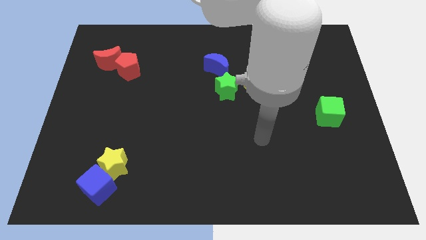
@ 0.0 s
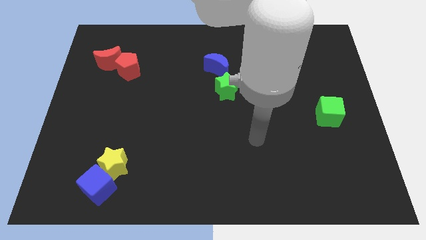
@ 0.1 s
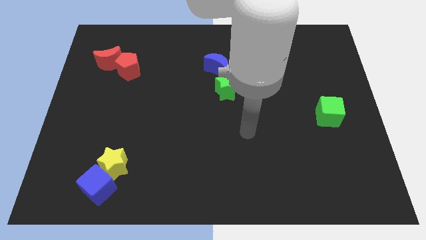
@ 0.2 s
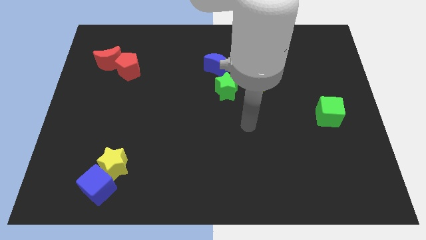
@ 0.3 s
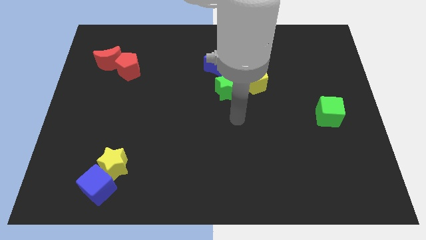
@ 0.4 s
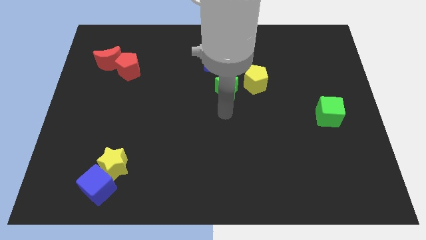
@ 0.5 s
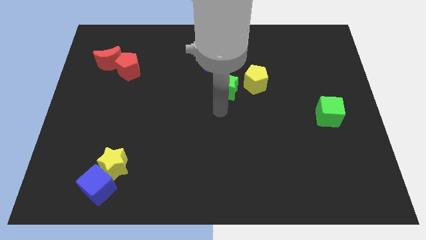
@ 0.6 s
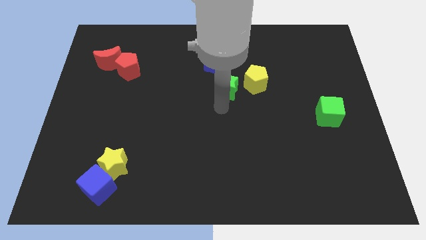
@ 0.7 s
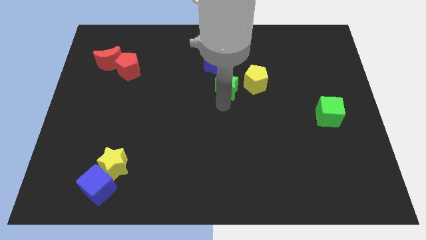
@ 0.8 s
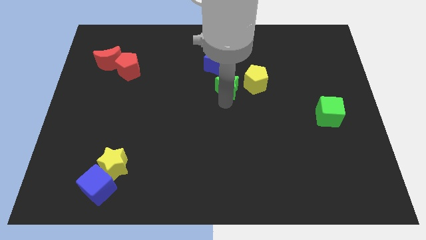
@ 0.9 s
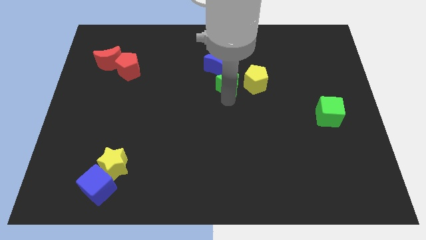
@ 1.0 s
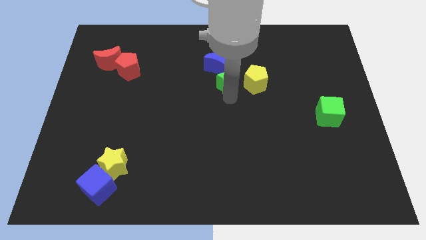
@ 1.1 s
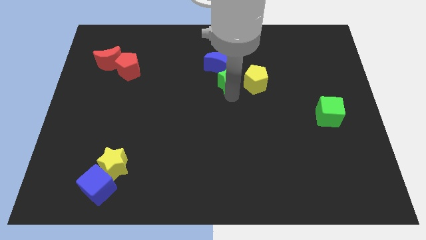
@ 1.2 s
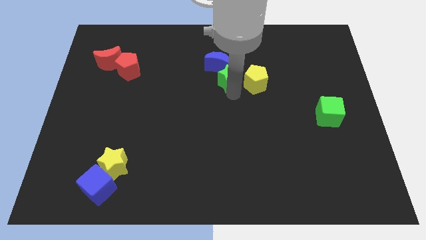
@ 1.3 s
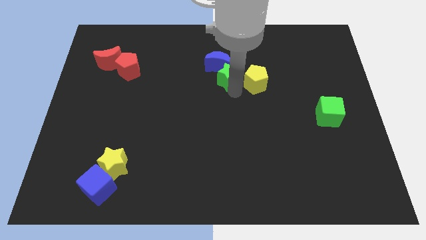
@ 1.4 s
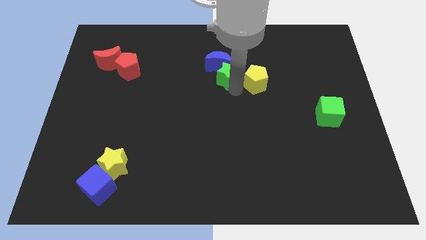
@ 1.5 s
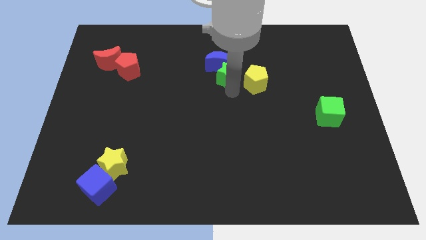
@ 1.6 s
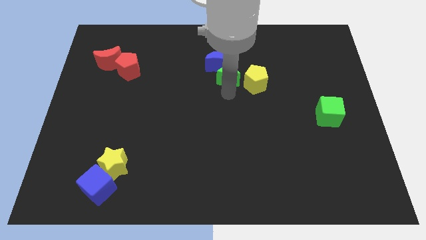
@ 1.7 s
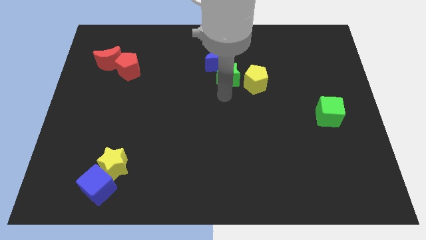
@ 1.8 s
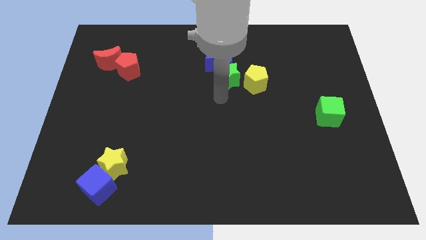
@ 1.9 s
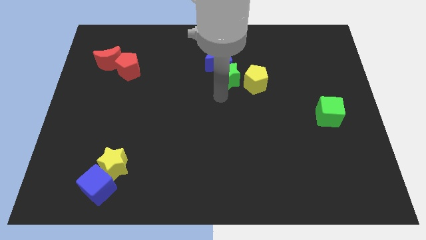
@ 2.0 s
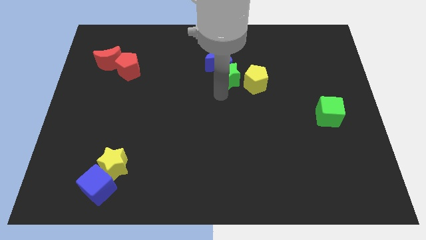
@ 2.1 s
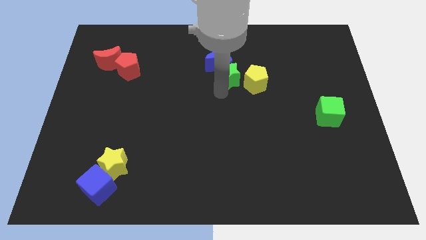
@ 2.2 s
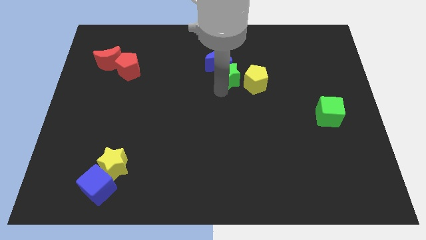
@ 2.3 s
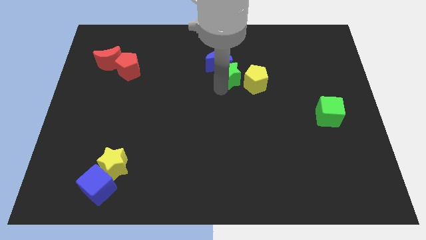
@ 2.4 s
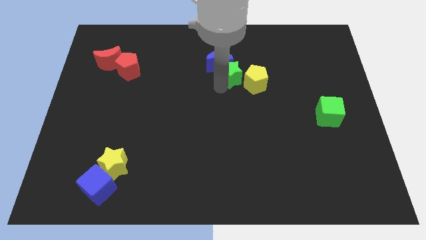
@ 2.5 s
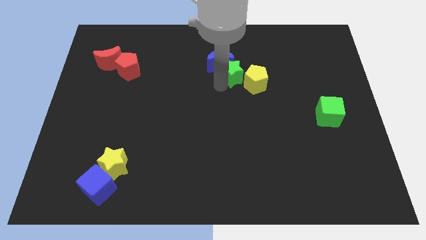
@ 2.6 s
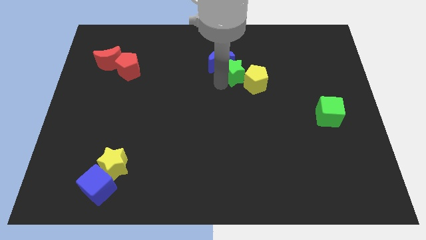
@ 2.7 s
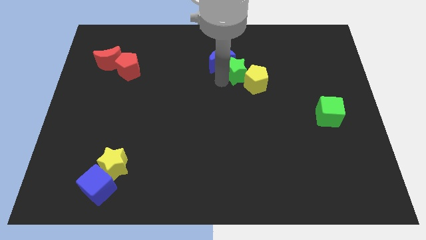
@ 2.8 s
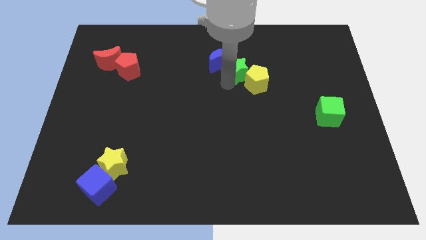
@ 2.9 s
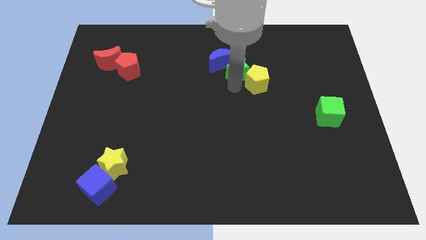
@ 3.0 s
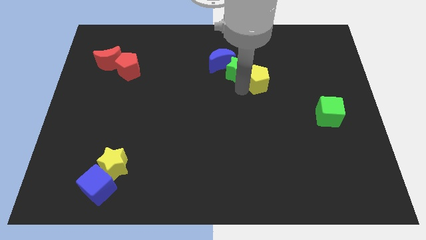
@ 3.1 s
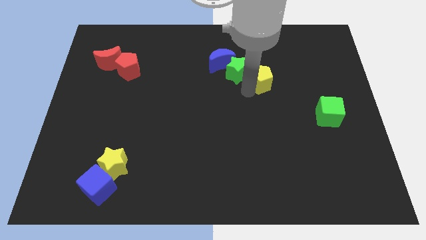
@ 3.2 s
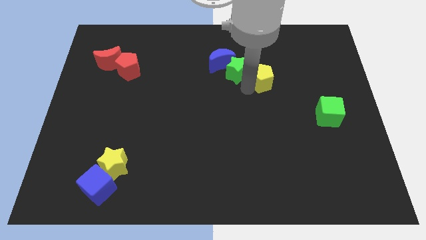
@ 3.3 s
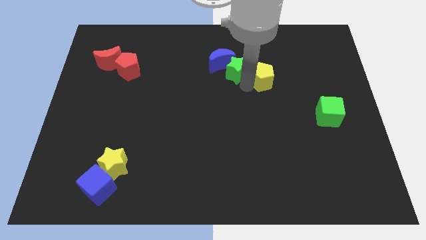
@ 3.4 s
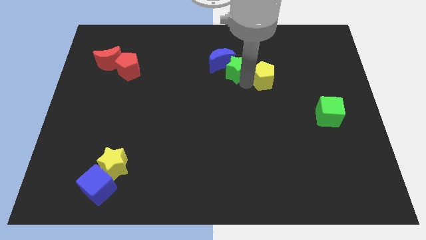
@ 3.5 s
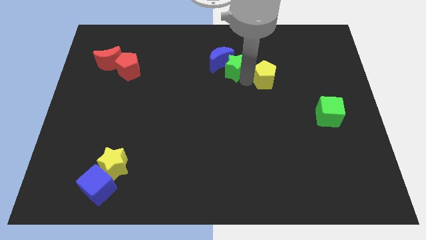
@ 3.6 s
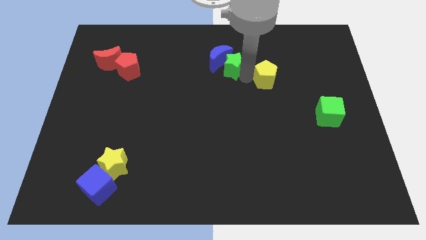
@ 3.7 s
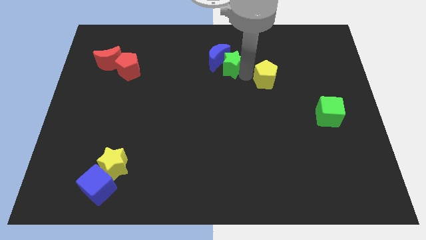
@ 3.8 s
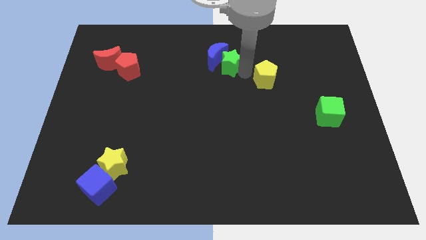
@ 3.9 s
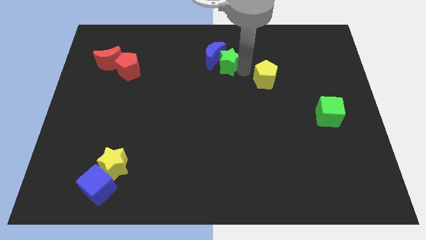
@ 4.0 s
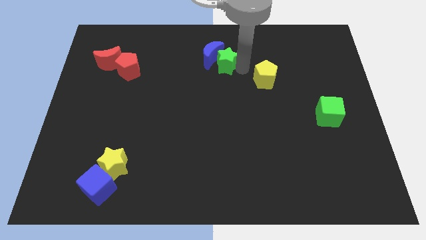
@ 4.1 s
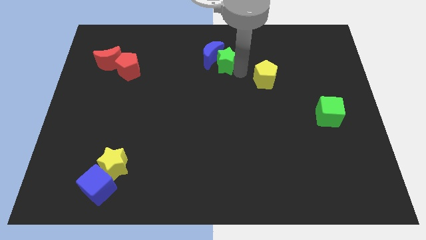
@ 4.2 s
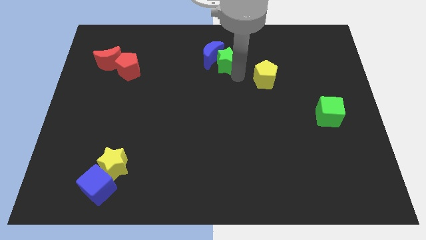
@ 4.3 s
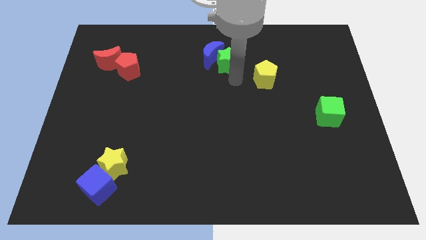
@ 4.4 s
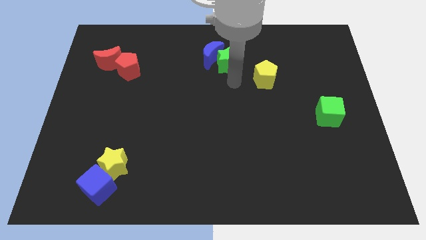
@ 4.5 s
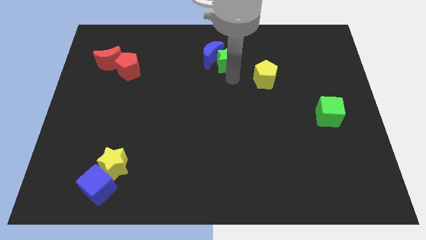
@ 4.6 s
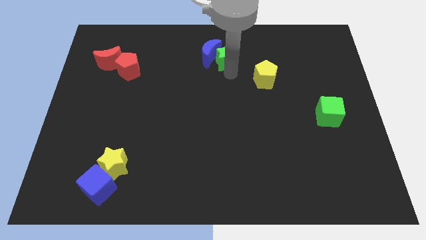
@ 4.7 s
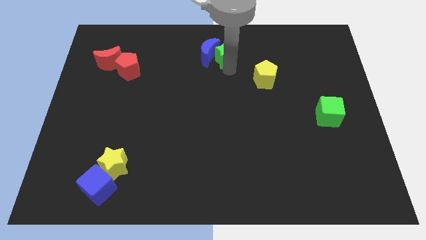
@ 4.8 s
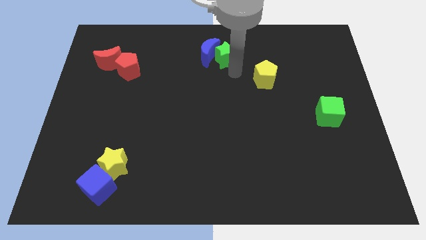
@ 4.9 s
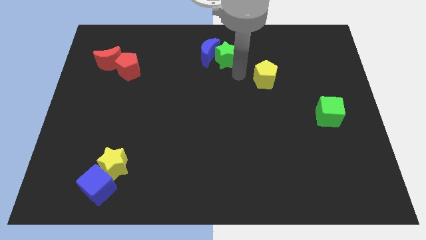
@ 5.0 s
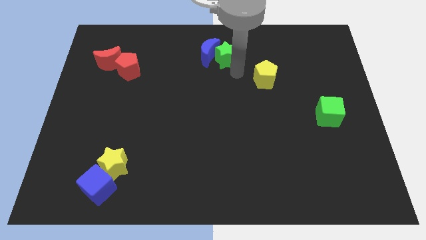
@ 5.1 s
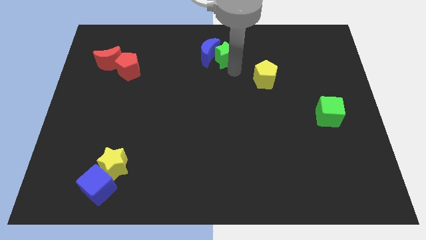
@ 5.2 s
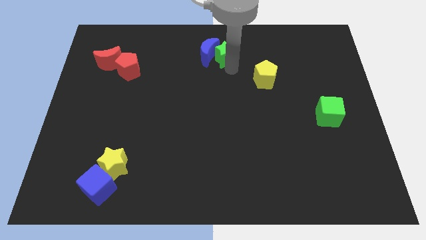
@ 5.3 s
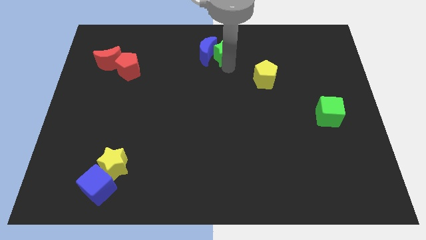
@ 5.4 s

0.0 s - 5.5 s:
move the green star to the top side

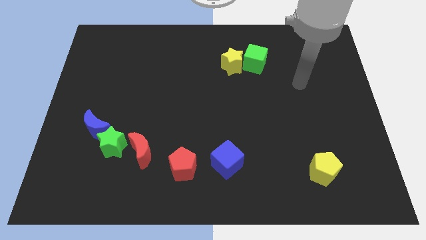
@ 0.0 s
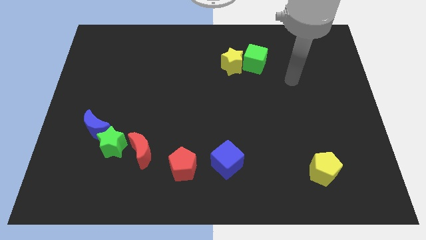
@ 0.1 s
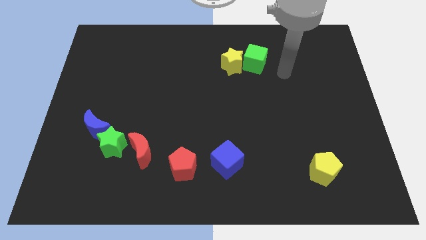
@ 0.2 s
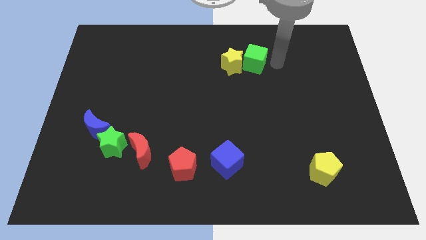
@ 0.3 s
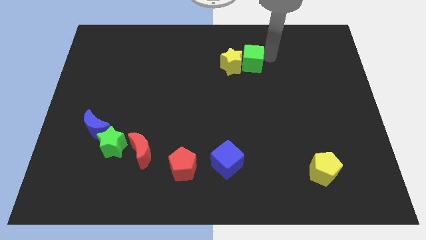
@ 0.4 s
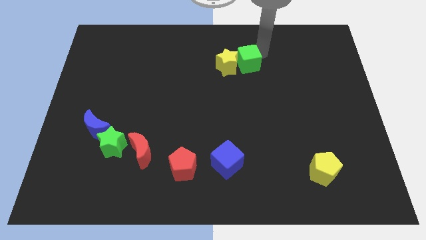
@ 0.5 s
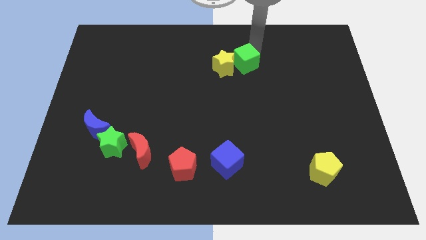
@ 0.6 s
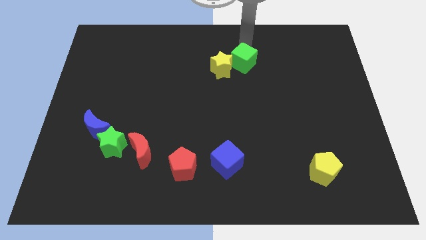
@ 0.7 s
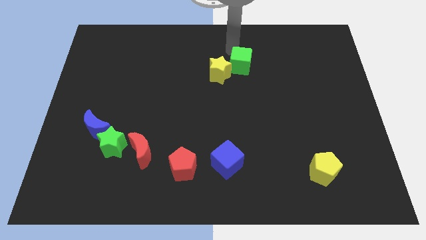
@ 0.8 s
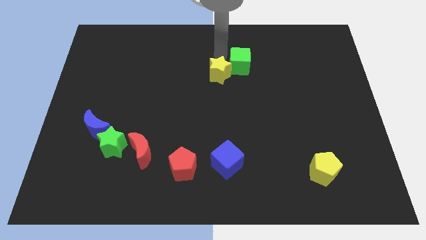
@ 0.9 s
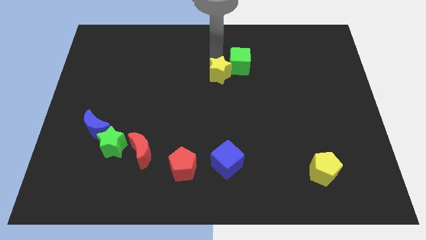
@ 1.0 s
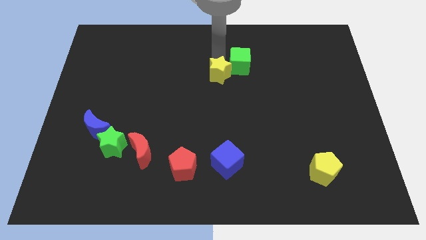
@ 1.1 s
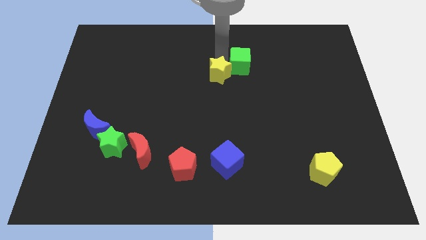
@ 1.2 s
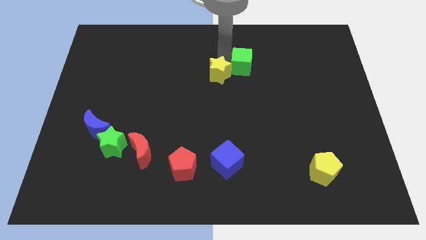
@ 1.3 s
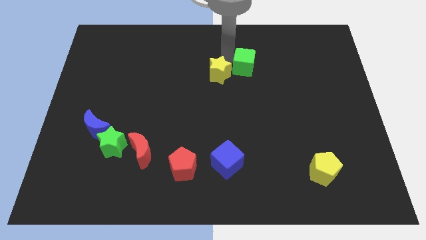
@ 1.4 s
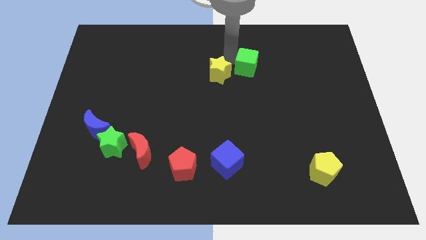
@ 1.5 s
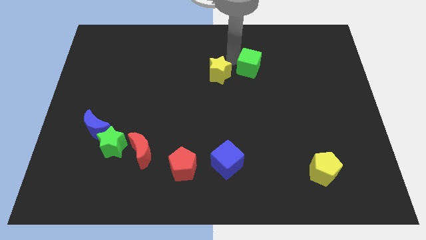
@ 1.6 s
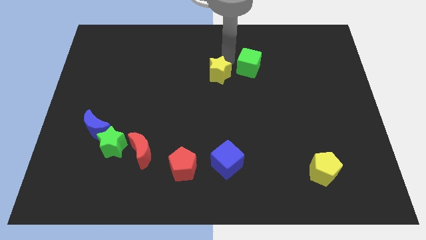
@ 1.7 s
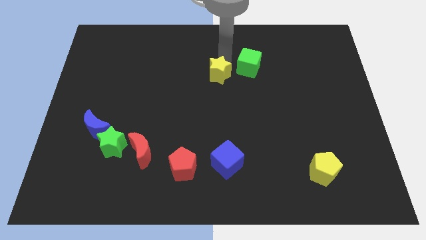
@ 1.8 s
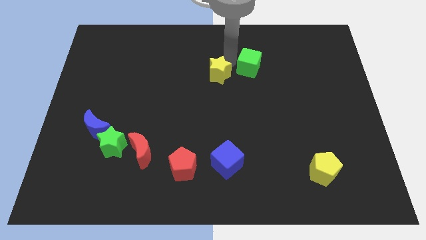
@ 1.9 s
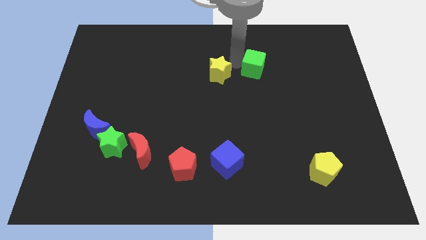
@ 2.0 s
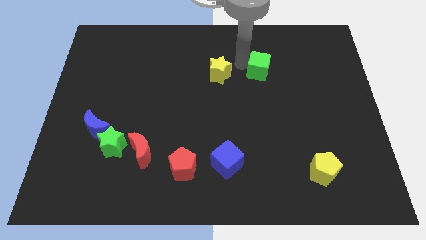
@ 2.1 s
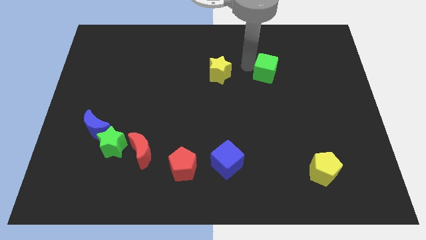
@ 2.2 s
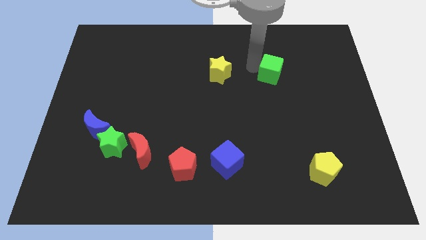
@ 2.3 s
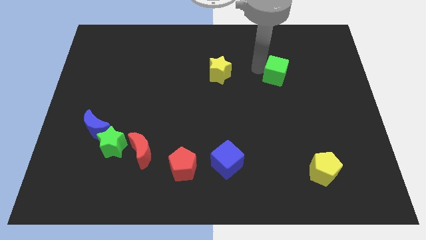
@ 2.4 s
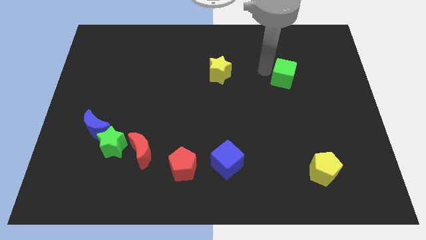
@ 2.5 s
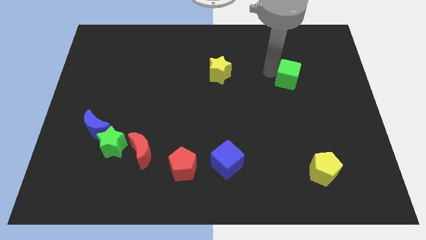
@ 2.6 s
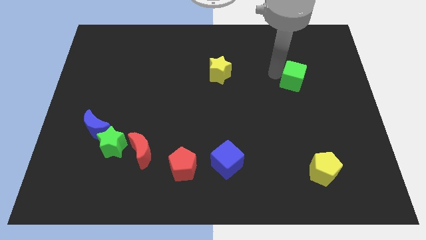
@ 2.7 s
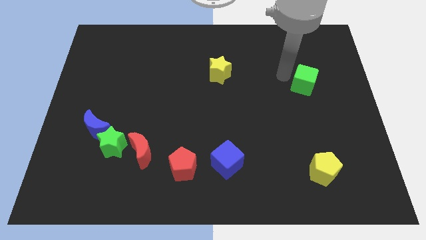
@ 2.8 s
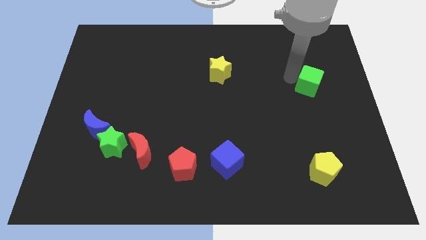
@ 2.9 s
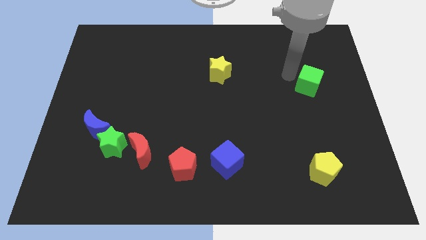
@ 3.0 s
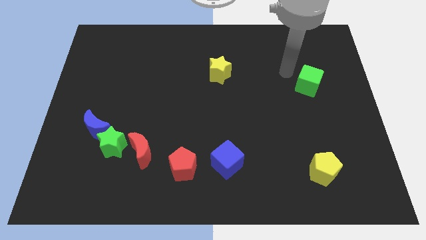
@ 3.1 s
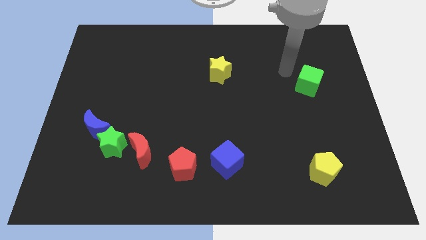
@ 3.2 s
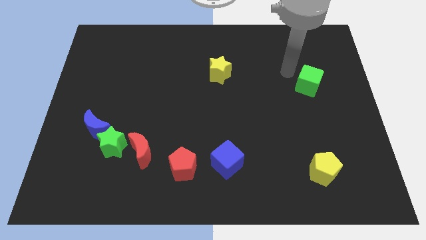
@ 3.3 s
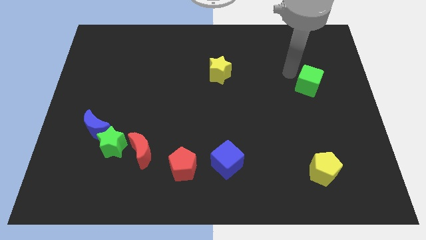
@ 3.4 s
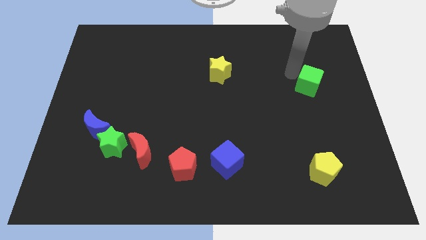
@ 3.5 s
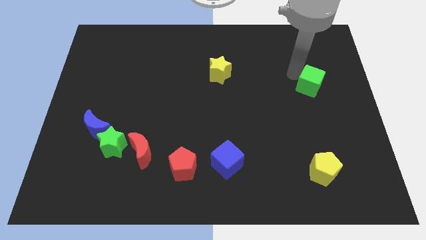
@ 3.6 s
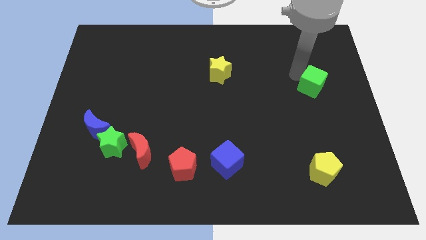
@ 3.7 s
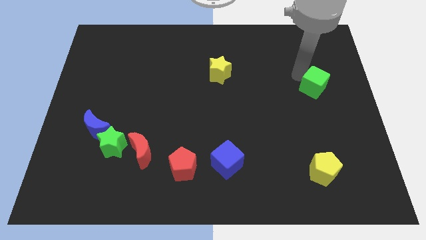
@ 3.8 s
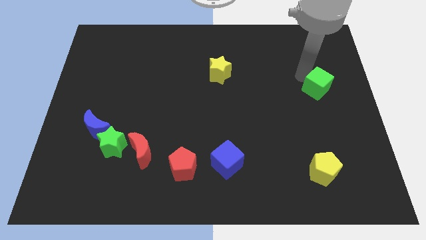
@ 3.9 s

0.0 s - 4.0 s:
put the green cube to the center right
